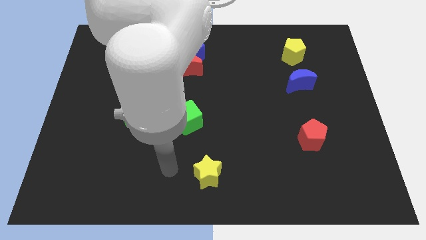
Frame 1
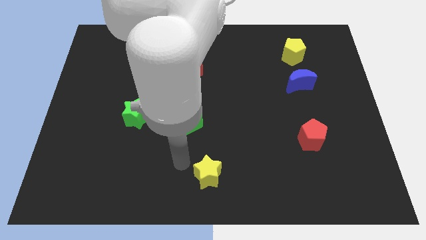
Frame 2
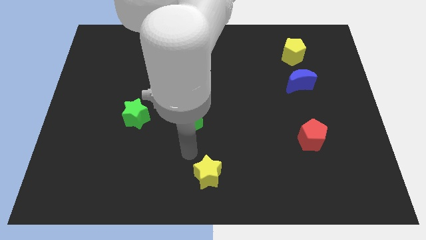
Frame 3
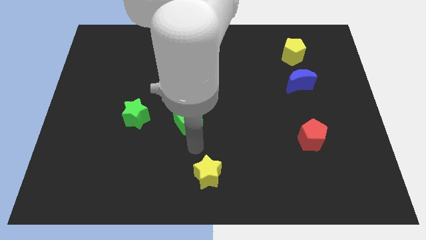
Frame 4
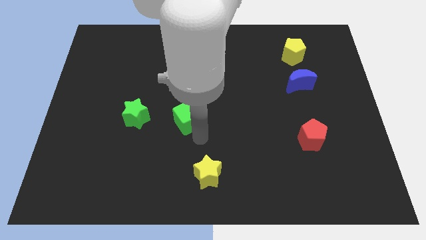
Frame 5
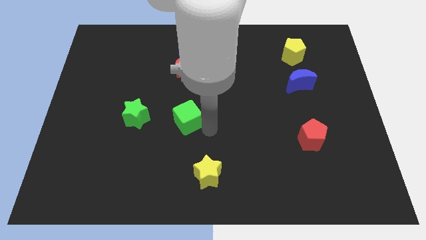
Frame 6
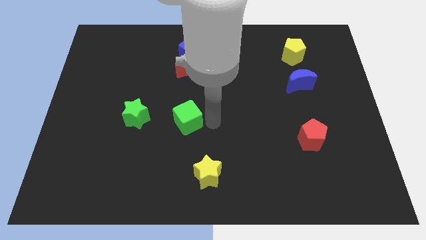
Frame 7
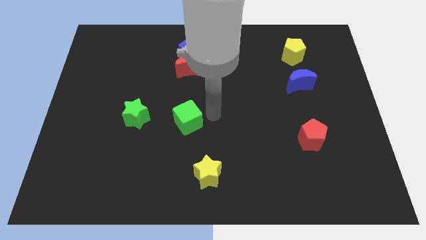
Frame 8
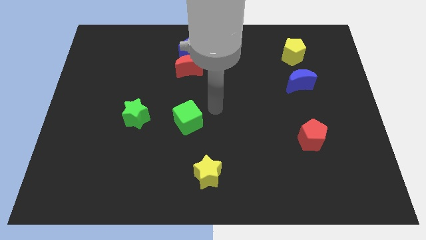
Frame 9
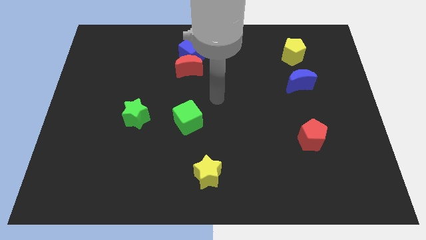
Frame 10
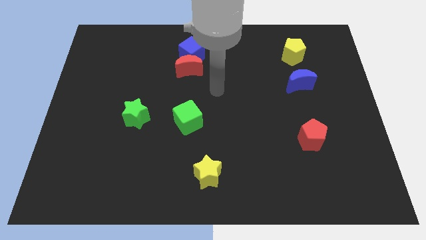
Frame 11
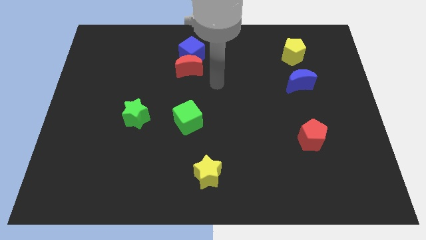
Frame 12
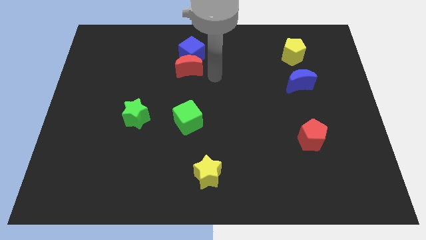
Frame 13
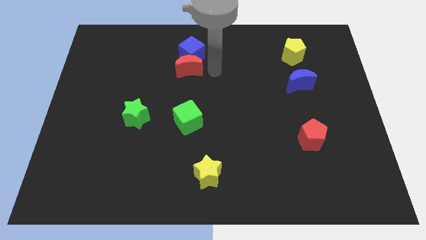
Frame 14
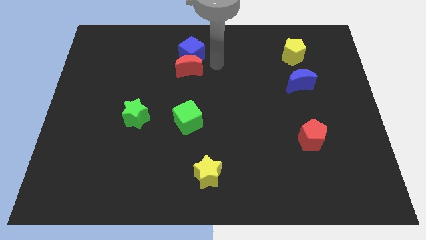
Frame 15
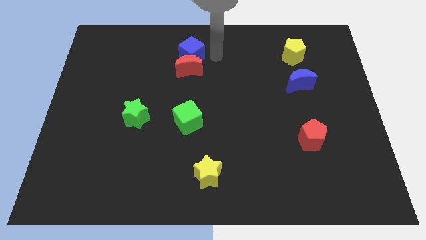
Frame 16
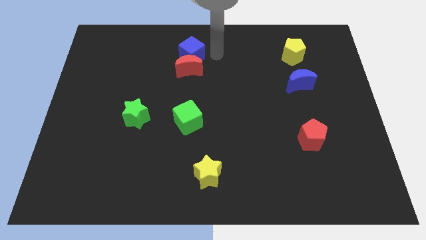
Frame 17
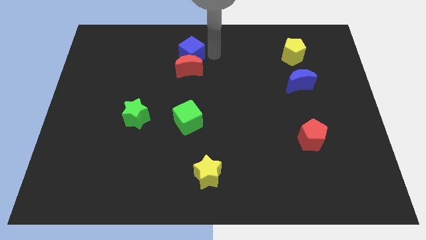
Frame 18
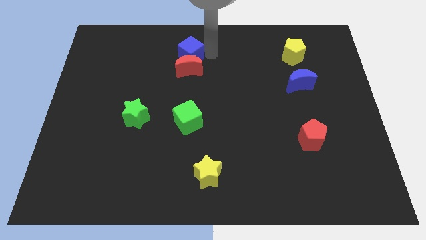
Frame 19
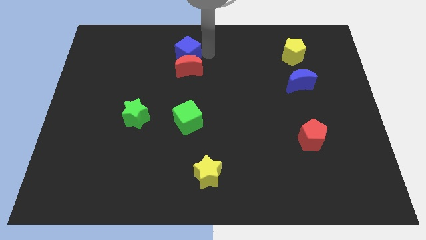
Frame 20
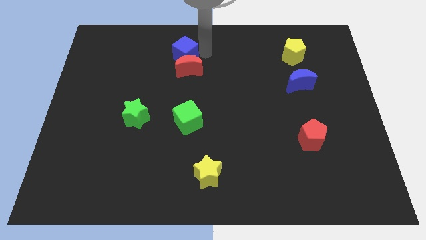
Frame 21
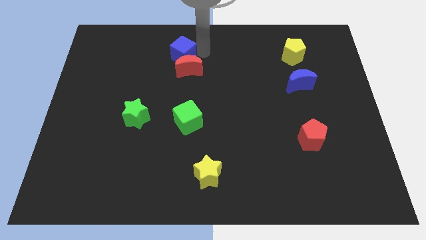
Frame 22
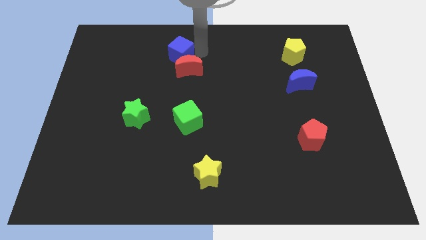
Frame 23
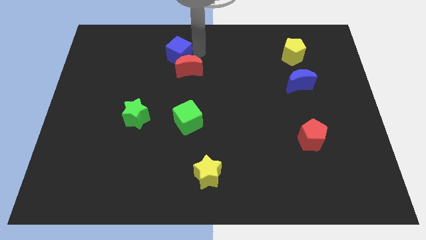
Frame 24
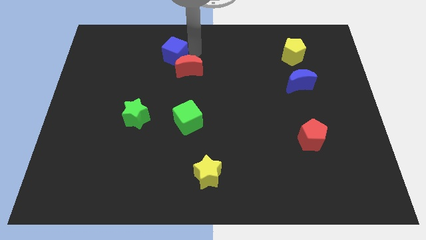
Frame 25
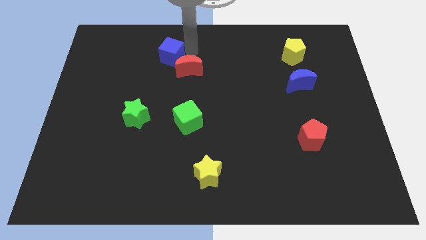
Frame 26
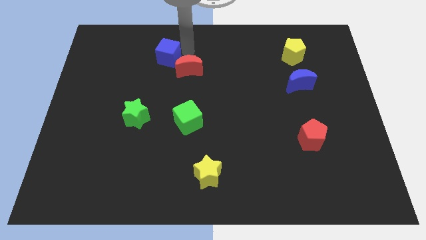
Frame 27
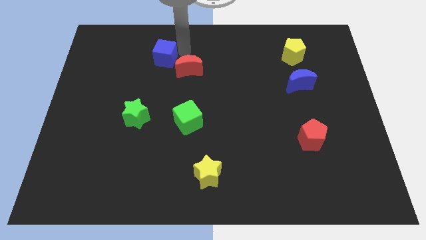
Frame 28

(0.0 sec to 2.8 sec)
slightly push the blue cube left

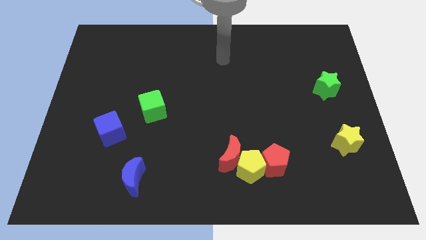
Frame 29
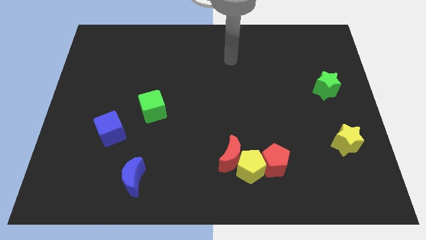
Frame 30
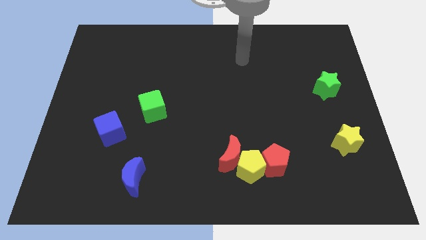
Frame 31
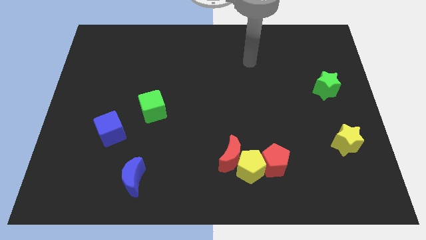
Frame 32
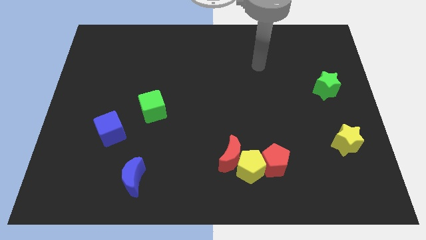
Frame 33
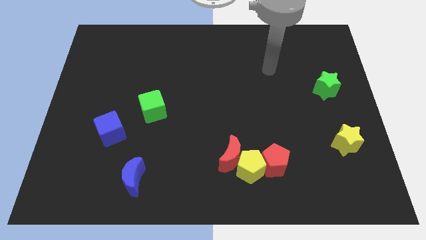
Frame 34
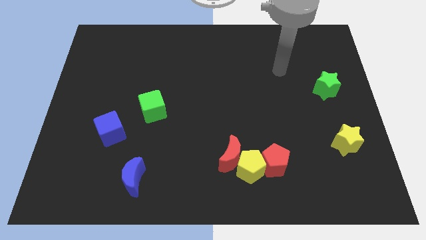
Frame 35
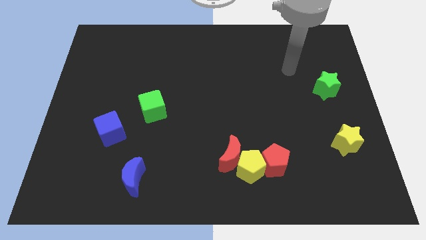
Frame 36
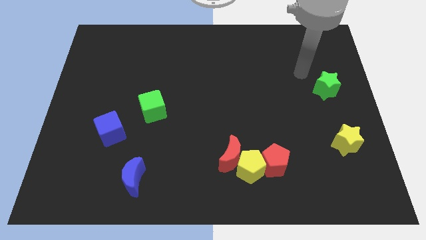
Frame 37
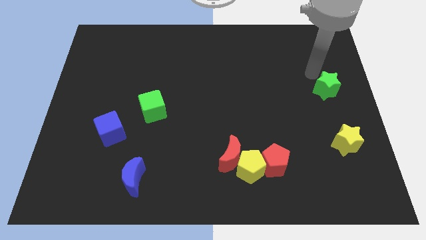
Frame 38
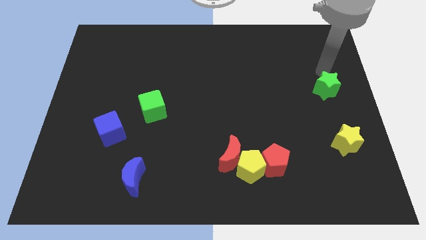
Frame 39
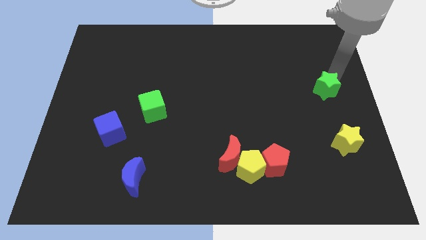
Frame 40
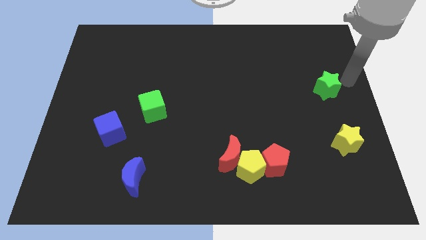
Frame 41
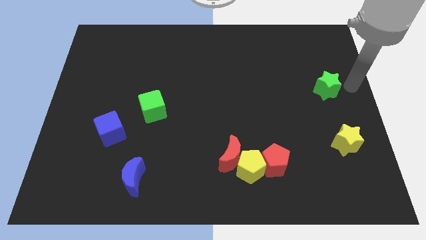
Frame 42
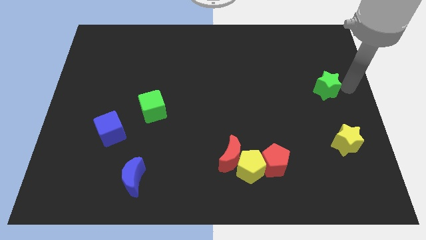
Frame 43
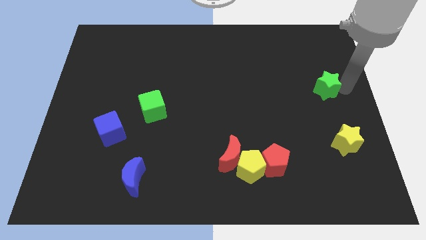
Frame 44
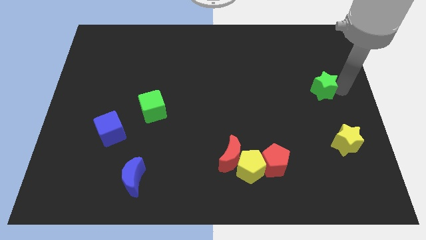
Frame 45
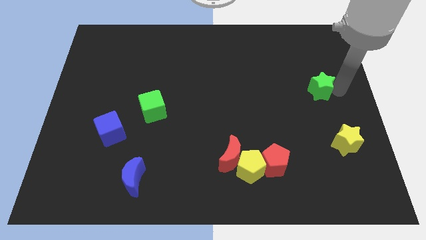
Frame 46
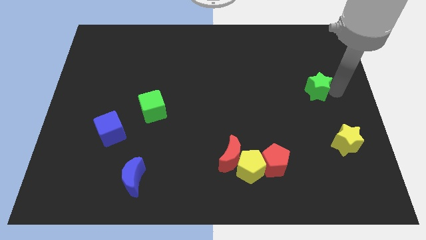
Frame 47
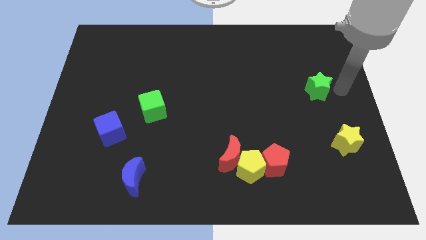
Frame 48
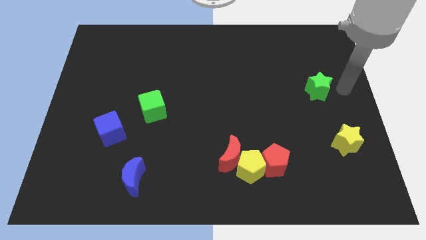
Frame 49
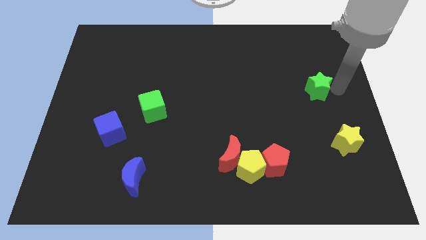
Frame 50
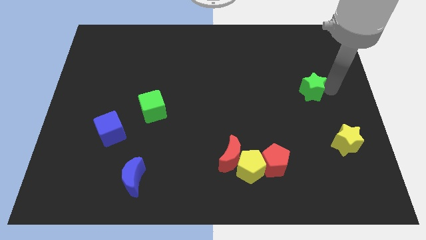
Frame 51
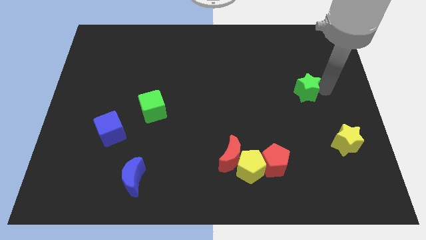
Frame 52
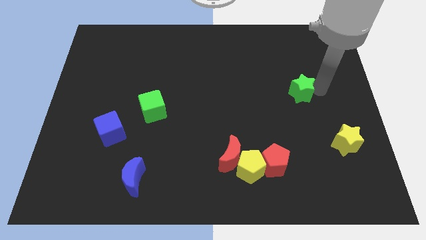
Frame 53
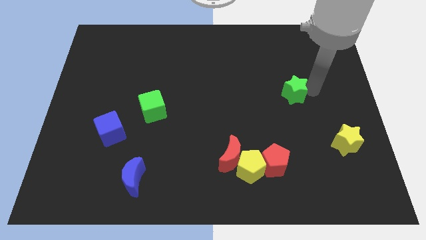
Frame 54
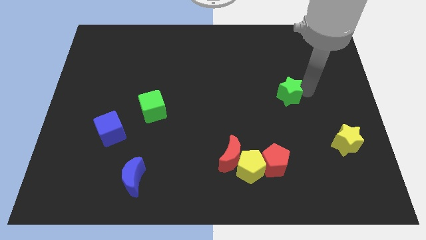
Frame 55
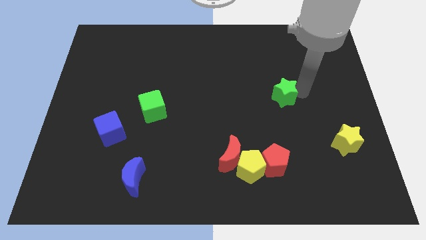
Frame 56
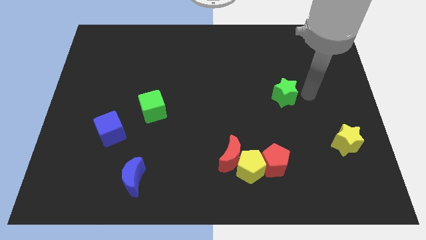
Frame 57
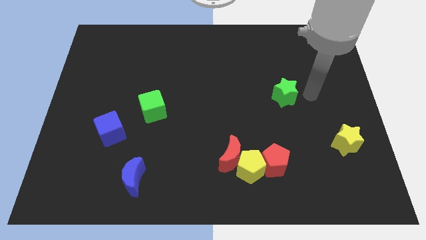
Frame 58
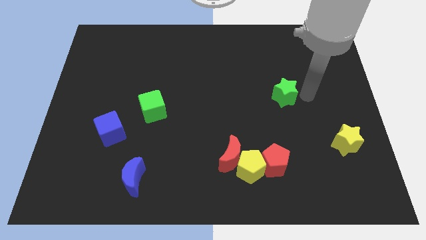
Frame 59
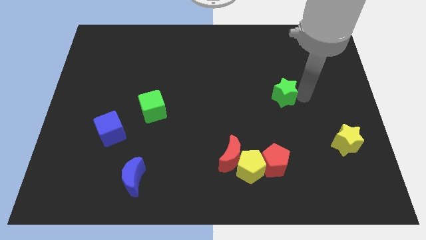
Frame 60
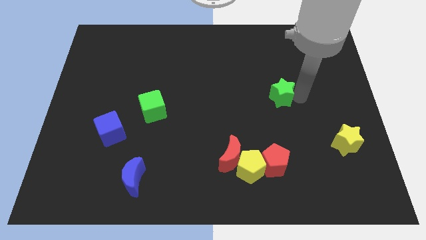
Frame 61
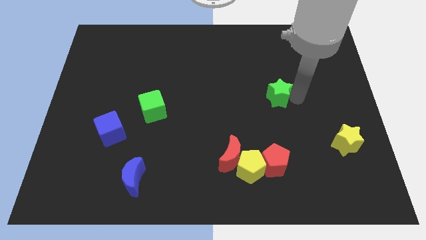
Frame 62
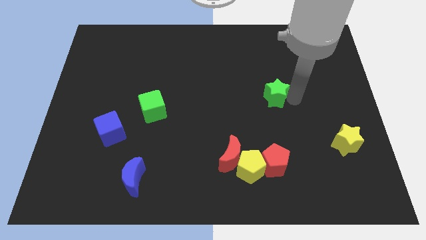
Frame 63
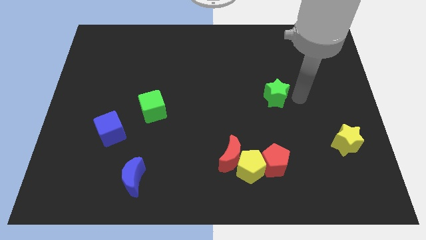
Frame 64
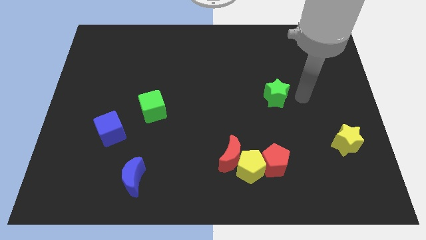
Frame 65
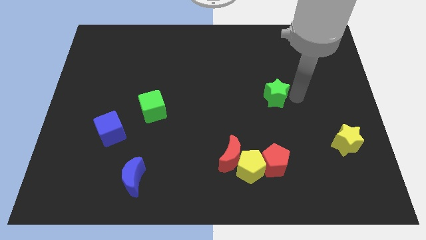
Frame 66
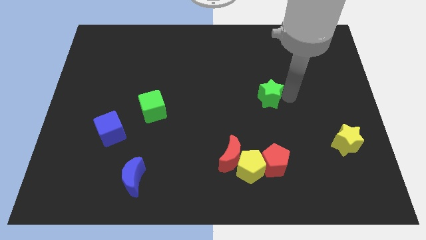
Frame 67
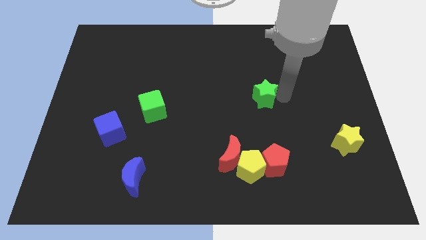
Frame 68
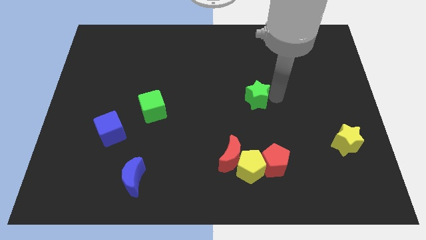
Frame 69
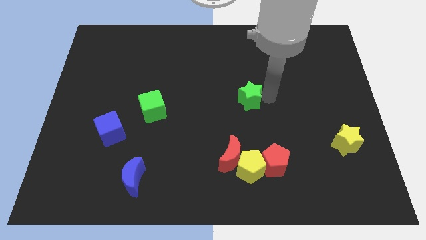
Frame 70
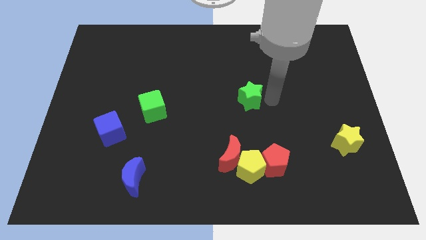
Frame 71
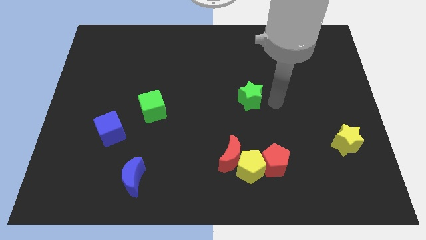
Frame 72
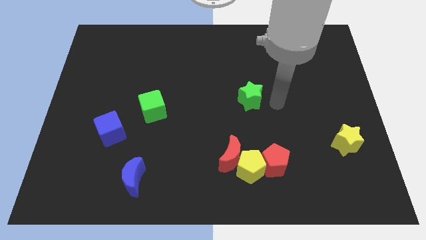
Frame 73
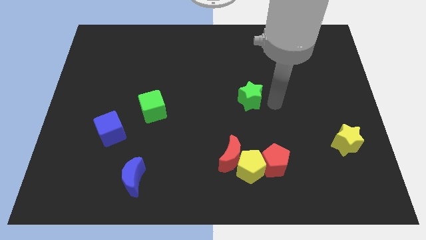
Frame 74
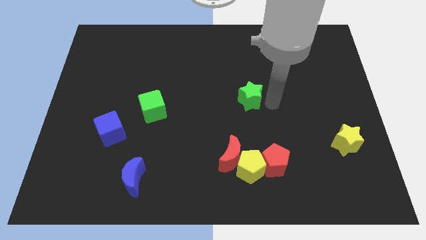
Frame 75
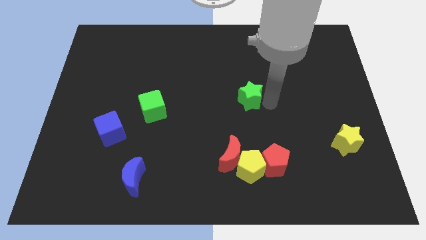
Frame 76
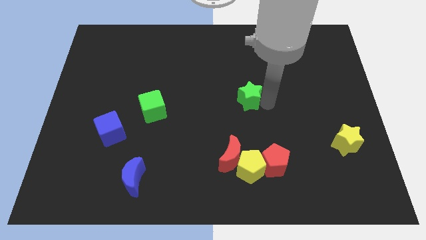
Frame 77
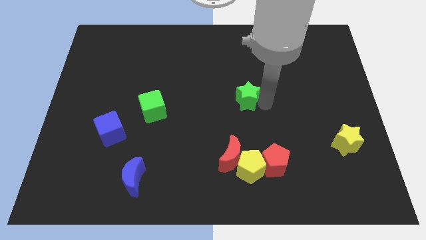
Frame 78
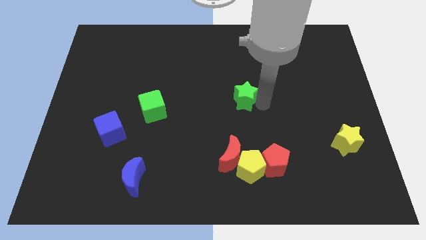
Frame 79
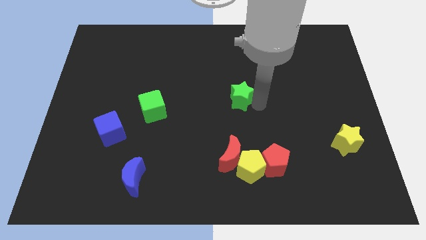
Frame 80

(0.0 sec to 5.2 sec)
move the green star left
